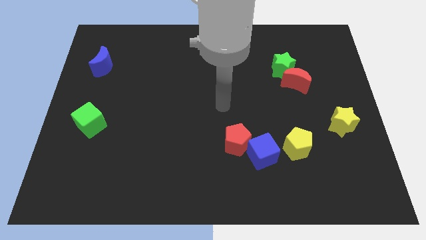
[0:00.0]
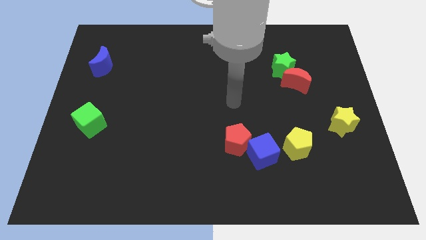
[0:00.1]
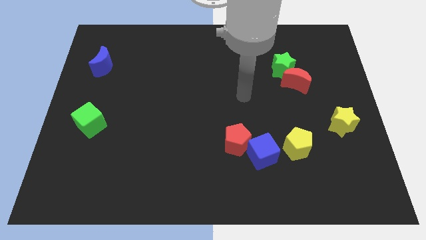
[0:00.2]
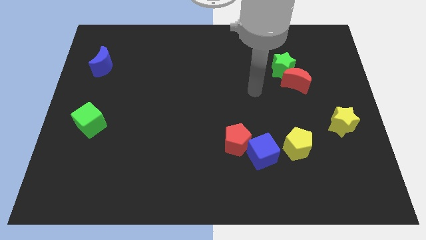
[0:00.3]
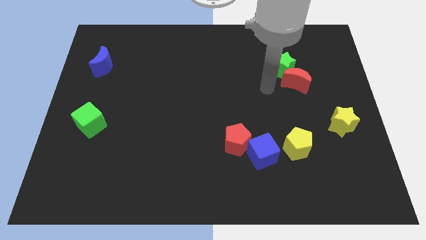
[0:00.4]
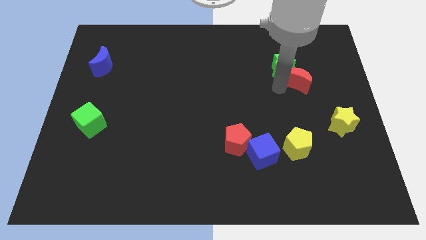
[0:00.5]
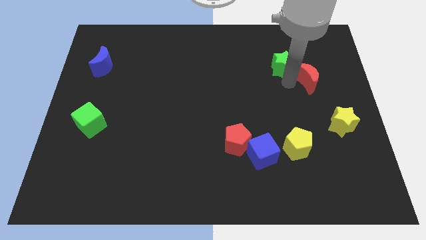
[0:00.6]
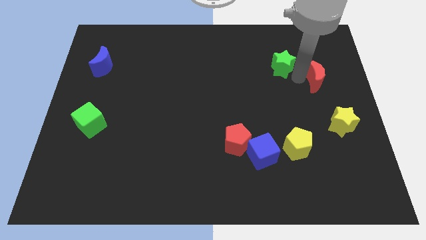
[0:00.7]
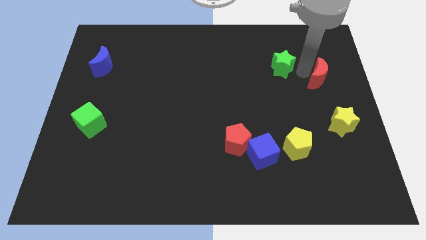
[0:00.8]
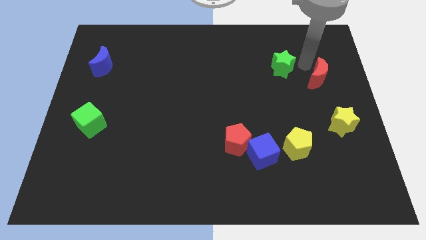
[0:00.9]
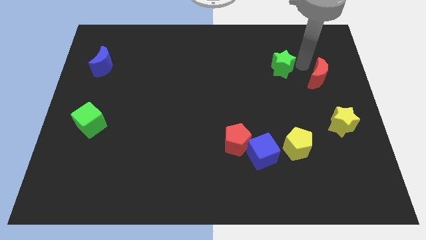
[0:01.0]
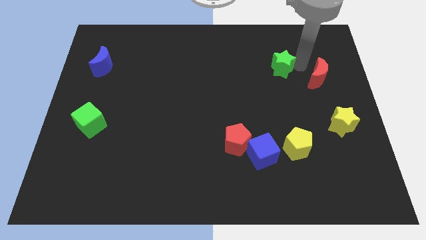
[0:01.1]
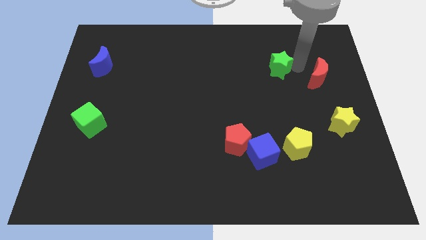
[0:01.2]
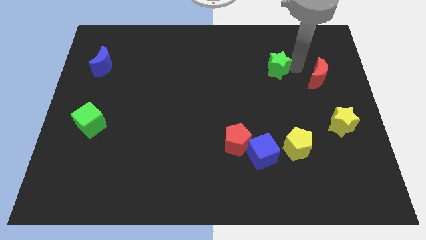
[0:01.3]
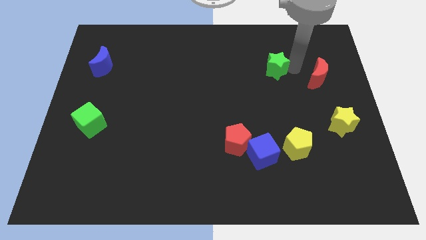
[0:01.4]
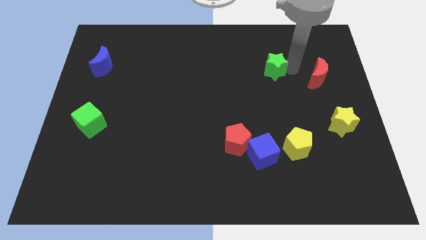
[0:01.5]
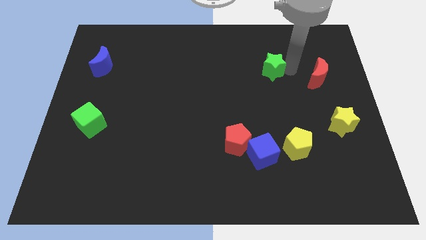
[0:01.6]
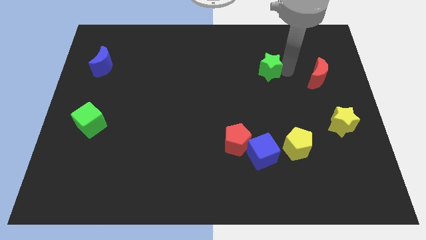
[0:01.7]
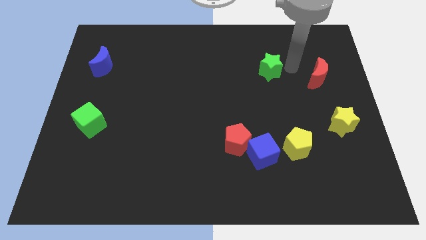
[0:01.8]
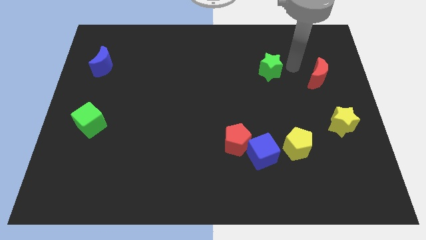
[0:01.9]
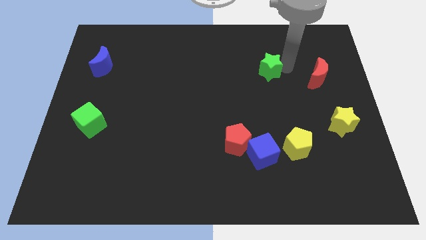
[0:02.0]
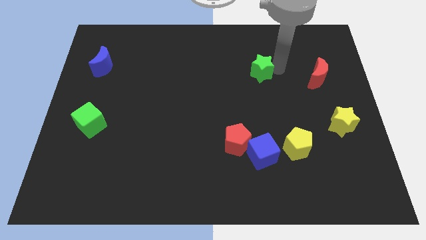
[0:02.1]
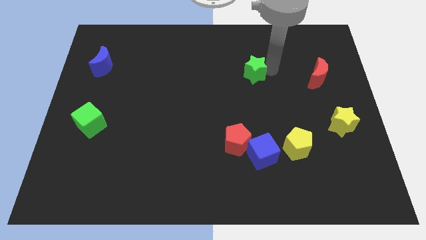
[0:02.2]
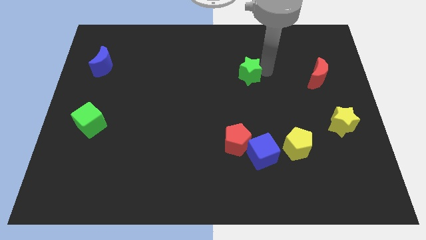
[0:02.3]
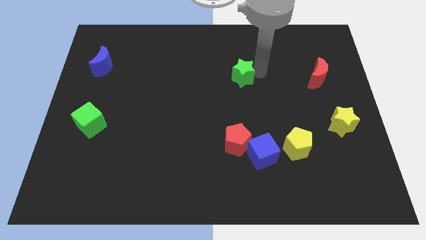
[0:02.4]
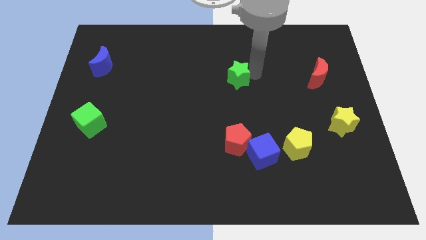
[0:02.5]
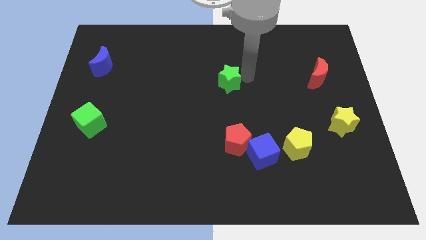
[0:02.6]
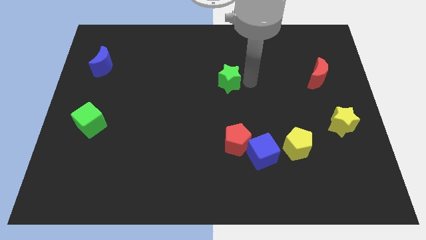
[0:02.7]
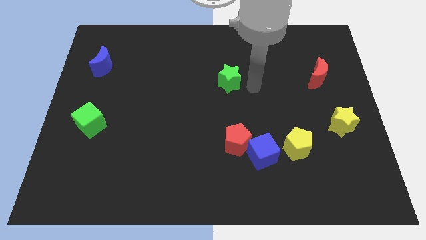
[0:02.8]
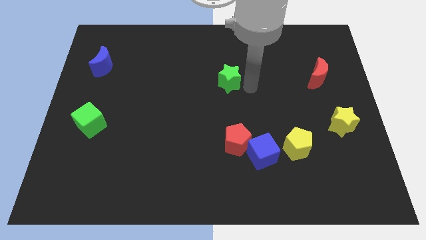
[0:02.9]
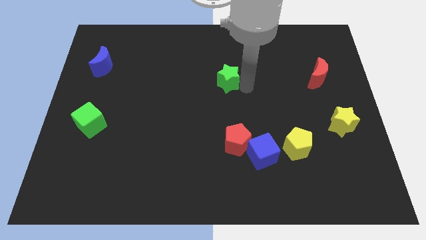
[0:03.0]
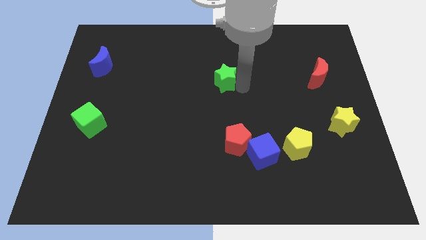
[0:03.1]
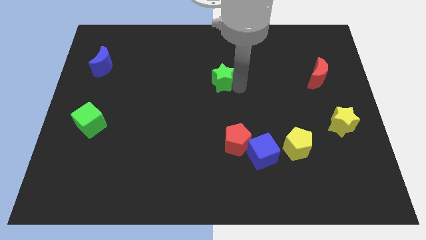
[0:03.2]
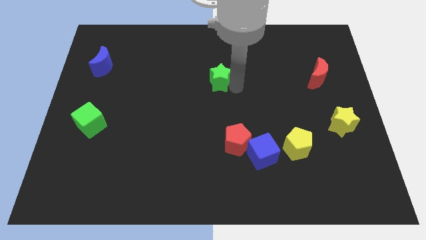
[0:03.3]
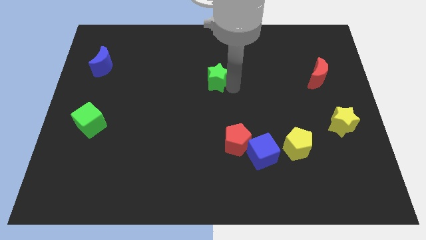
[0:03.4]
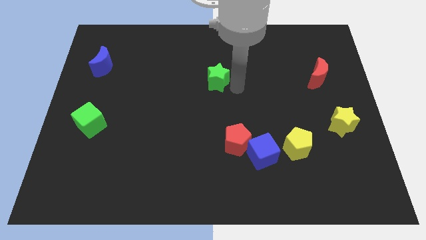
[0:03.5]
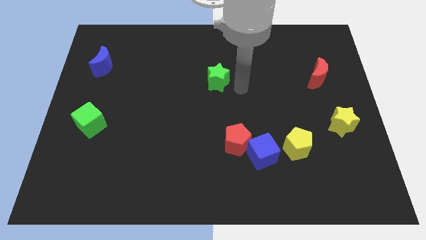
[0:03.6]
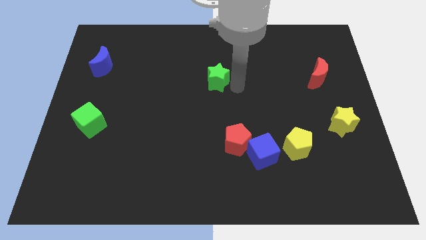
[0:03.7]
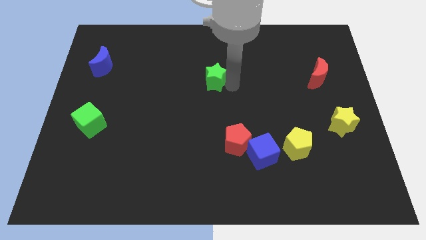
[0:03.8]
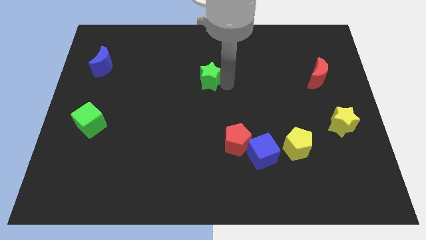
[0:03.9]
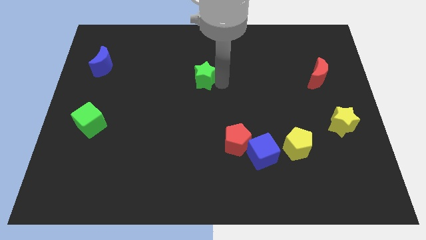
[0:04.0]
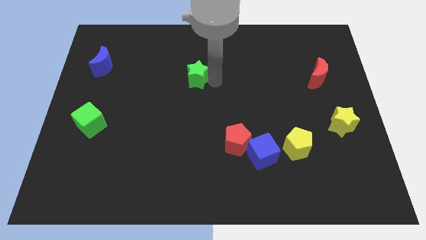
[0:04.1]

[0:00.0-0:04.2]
push the green star to the left

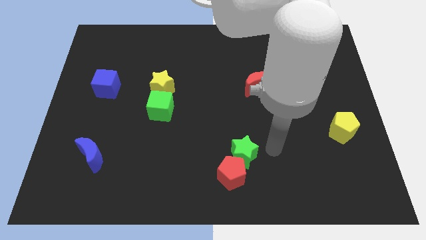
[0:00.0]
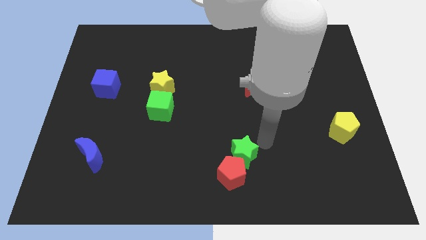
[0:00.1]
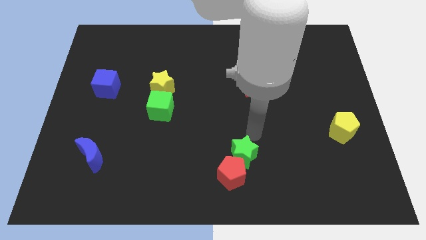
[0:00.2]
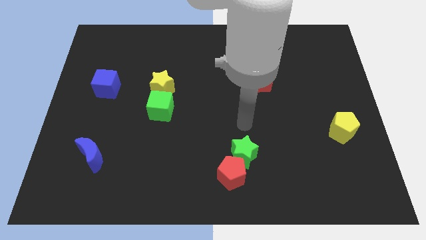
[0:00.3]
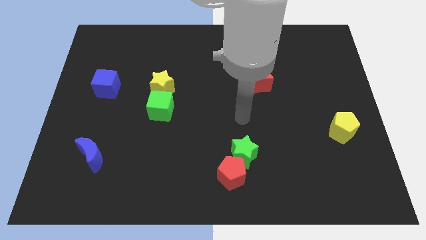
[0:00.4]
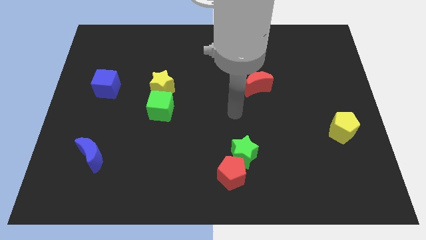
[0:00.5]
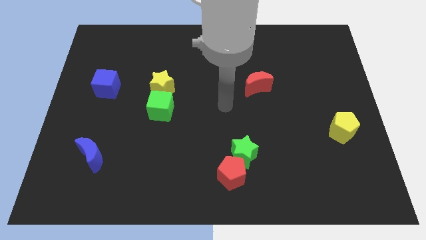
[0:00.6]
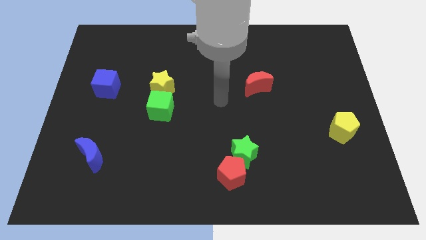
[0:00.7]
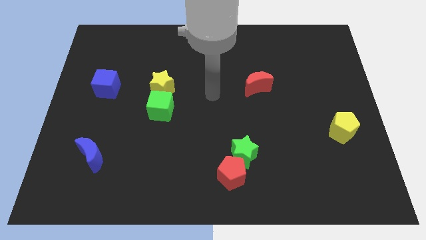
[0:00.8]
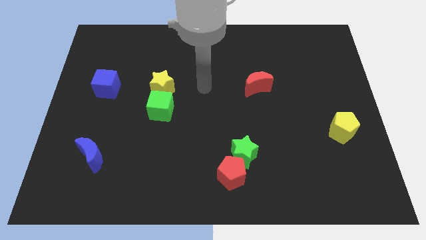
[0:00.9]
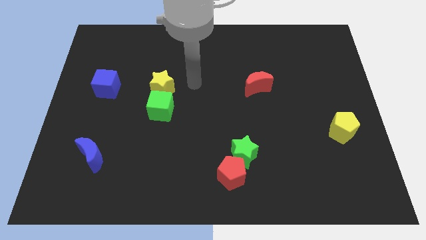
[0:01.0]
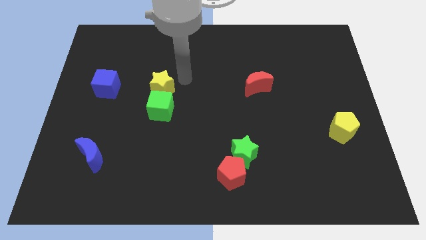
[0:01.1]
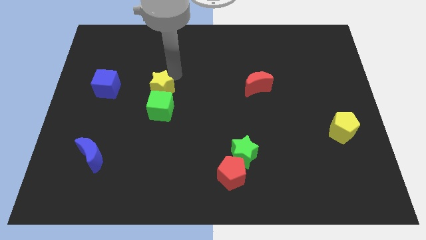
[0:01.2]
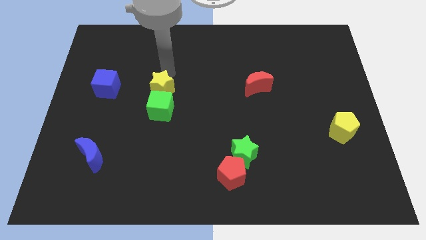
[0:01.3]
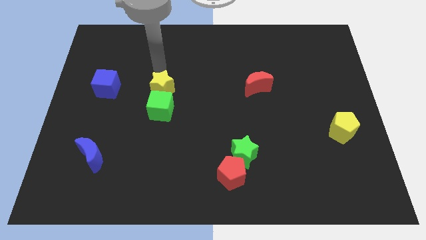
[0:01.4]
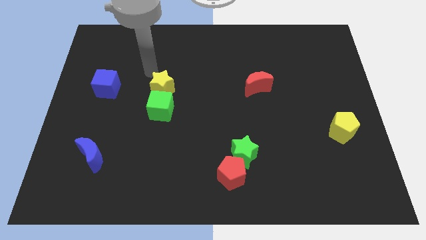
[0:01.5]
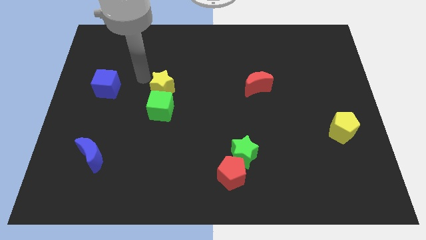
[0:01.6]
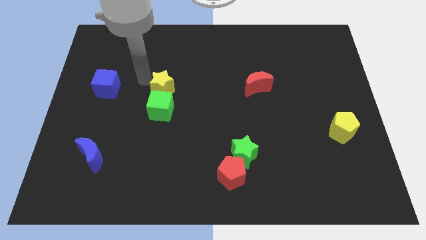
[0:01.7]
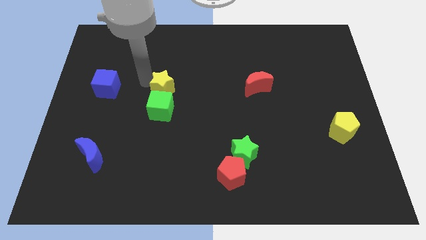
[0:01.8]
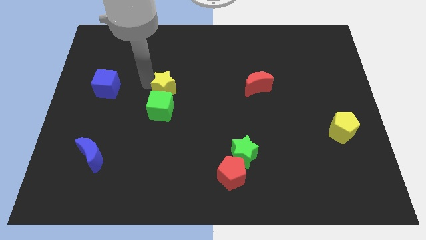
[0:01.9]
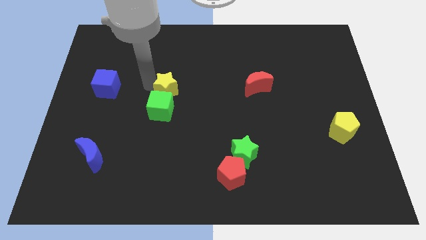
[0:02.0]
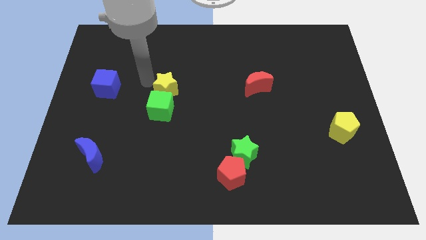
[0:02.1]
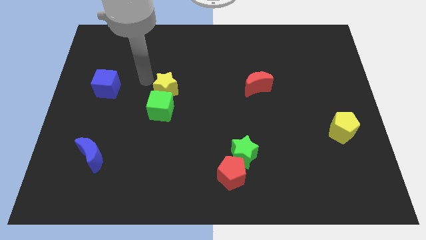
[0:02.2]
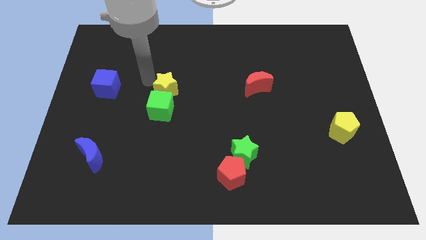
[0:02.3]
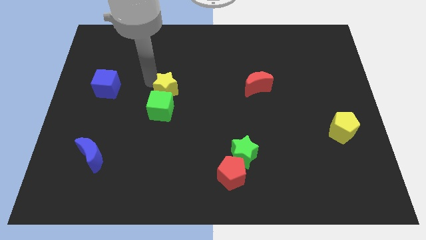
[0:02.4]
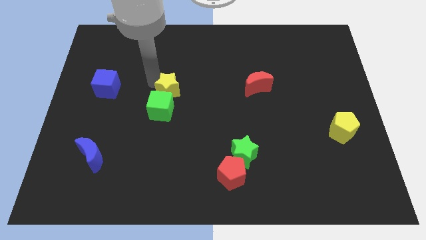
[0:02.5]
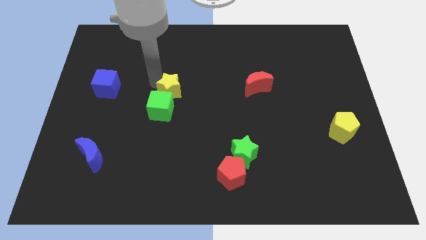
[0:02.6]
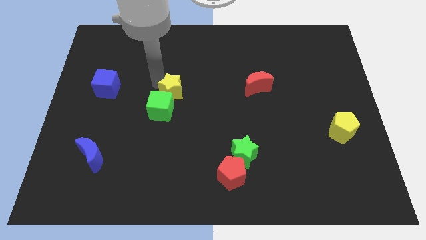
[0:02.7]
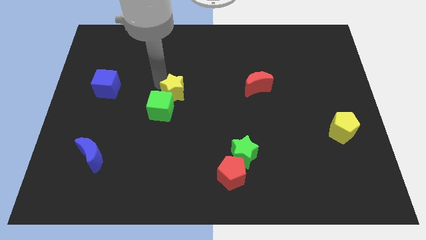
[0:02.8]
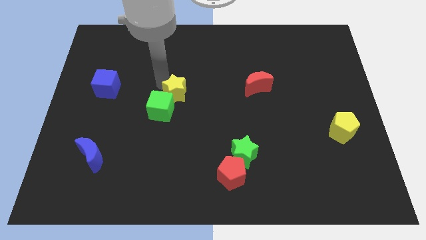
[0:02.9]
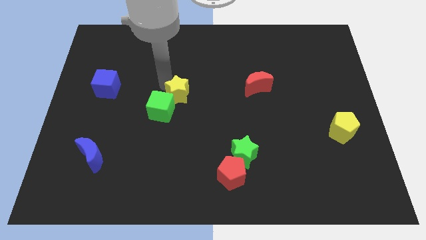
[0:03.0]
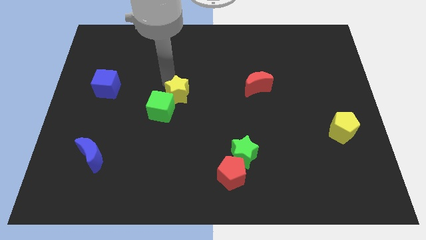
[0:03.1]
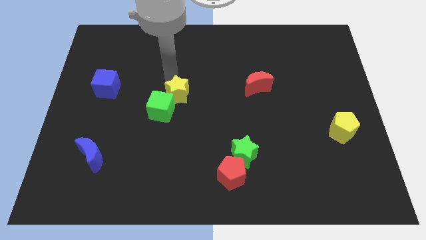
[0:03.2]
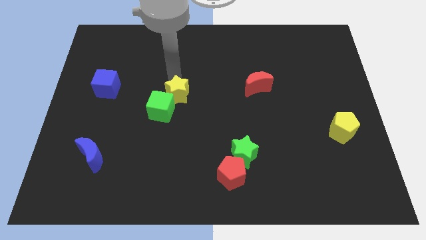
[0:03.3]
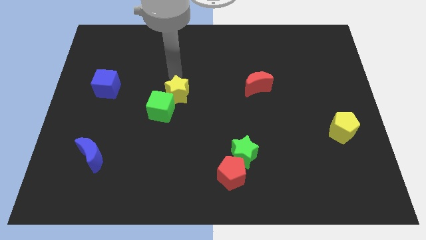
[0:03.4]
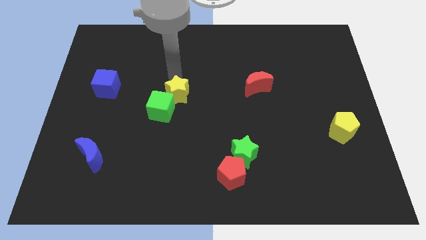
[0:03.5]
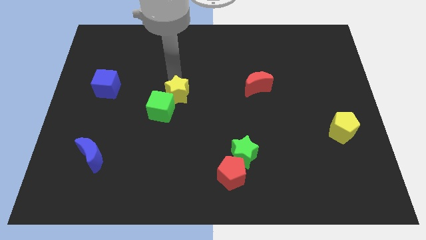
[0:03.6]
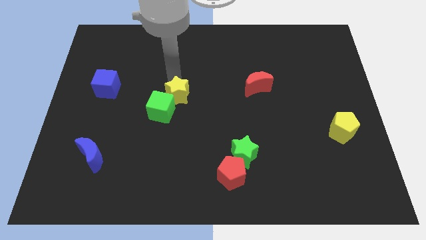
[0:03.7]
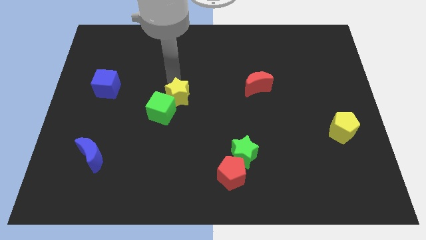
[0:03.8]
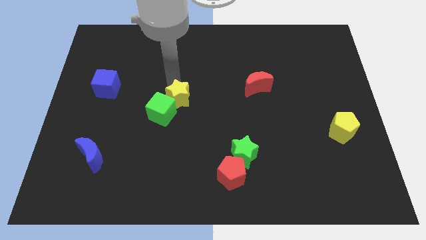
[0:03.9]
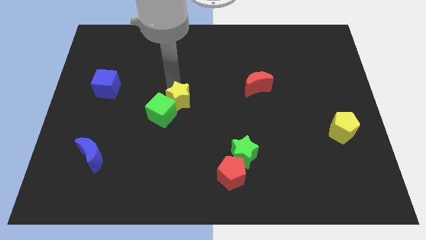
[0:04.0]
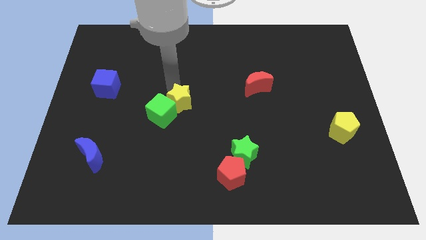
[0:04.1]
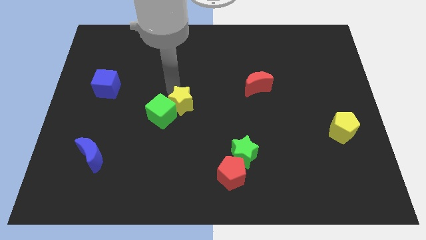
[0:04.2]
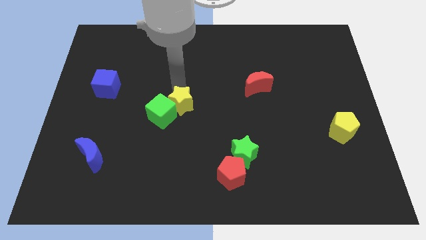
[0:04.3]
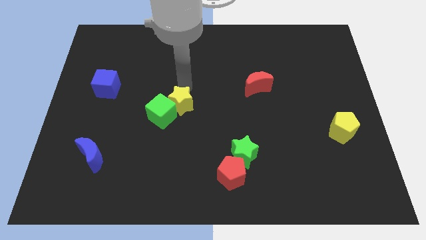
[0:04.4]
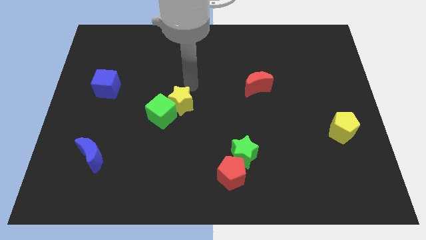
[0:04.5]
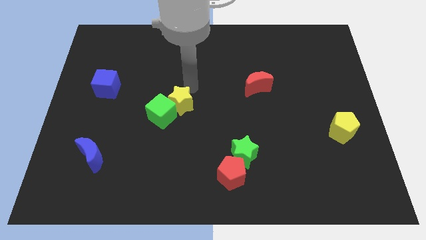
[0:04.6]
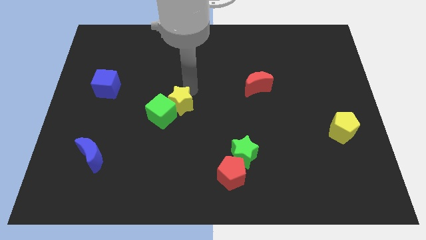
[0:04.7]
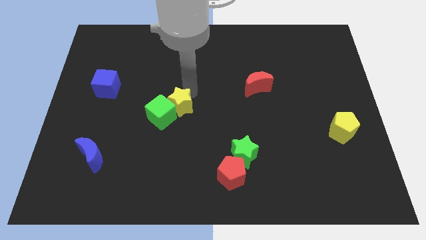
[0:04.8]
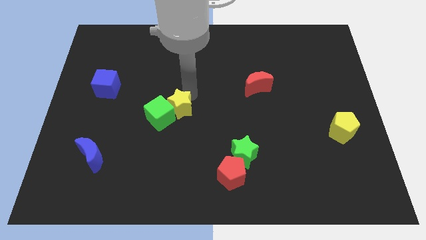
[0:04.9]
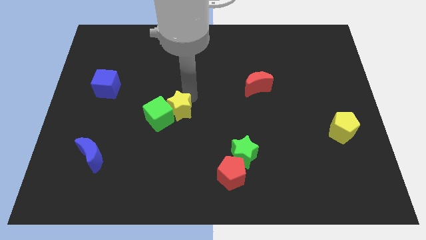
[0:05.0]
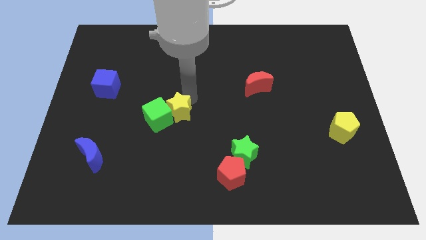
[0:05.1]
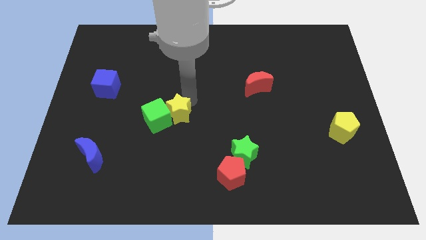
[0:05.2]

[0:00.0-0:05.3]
slightly slide the yellow star down
